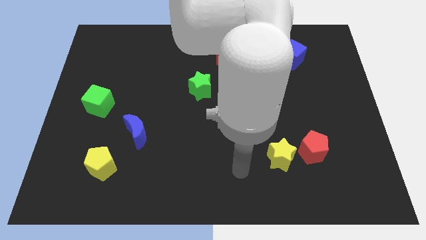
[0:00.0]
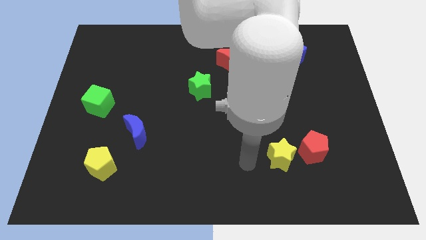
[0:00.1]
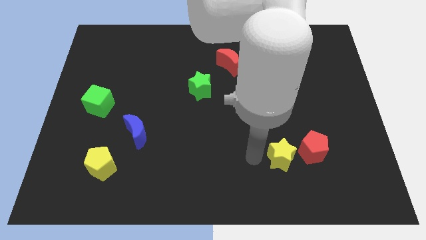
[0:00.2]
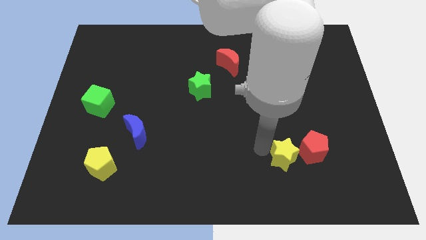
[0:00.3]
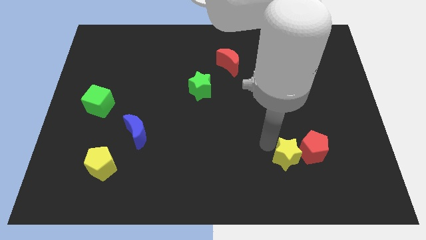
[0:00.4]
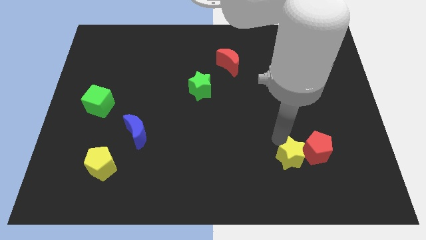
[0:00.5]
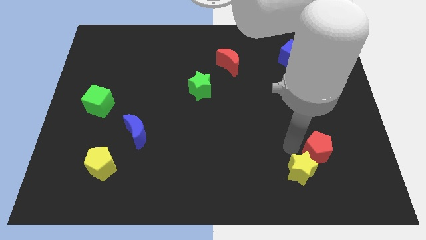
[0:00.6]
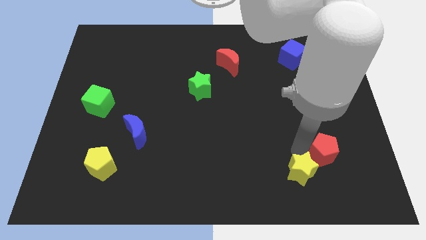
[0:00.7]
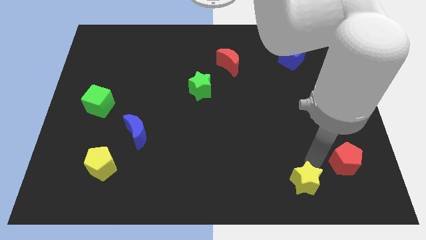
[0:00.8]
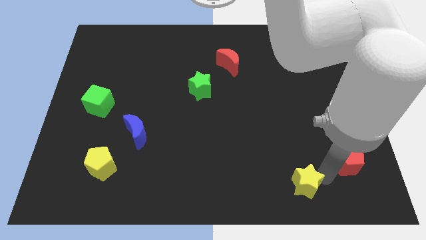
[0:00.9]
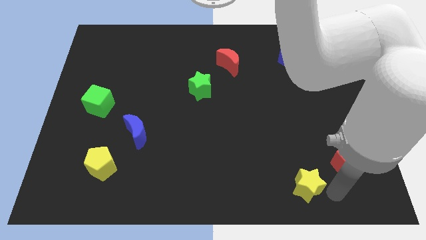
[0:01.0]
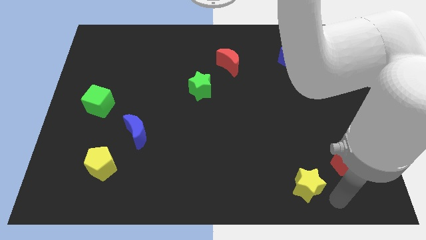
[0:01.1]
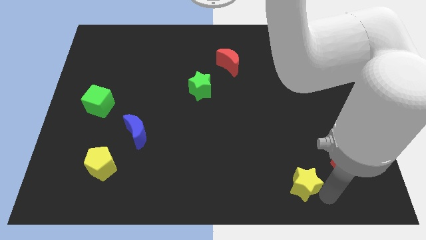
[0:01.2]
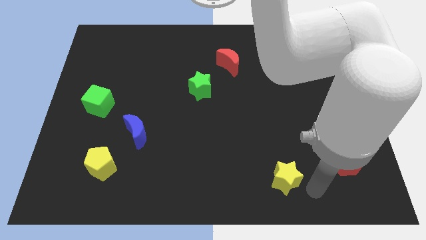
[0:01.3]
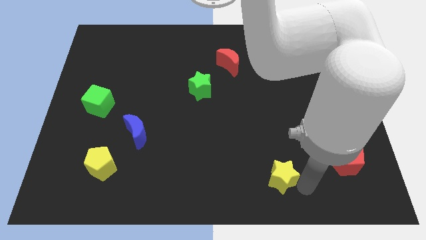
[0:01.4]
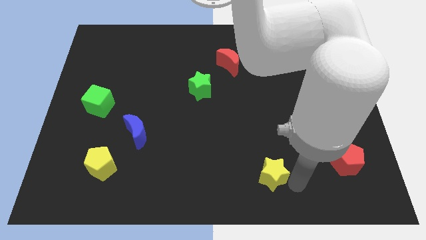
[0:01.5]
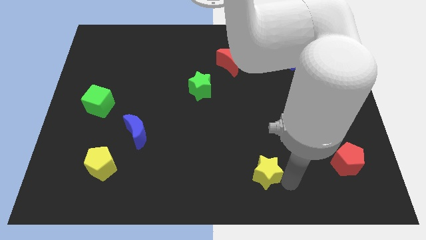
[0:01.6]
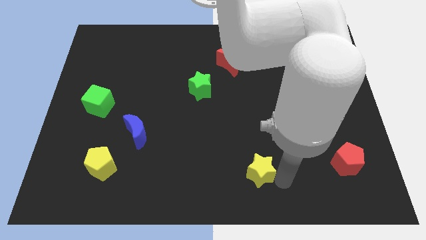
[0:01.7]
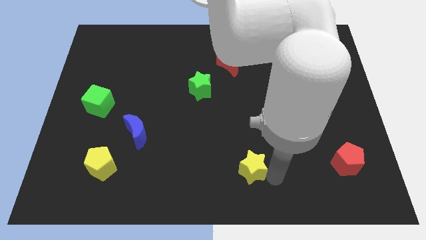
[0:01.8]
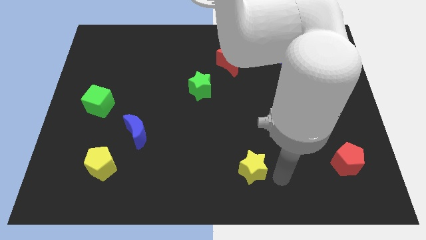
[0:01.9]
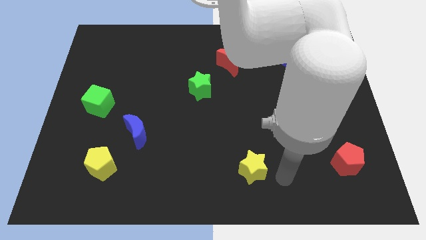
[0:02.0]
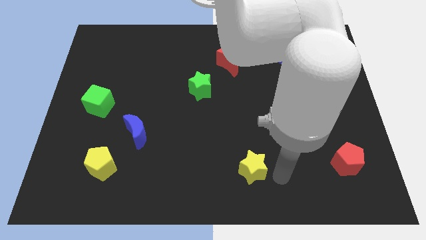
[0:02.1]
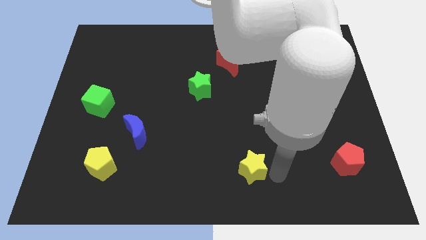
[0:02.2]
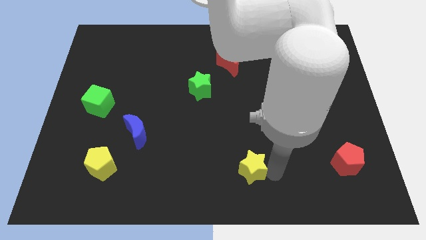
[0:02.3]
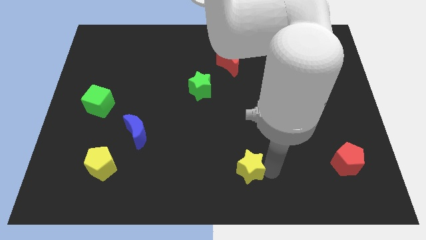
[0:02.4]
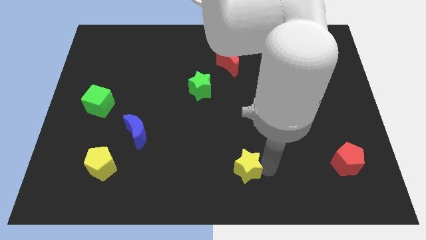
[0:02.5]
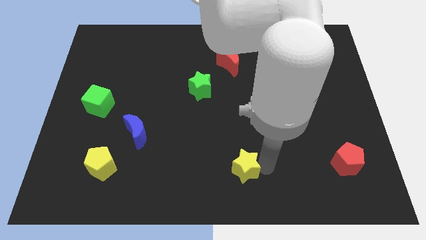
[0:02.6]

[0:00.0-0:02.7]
move the yellow star a little bit left

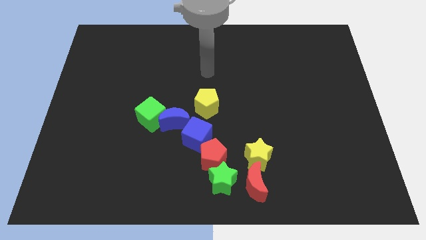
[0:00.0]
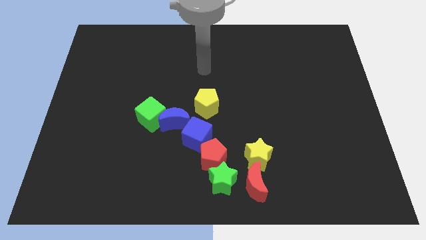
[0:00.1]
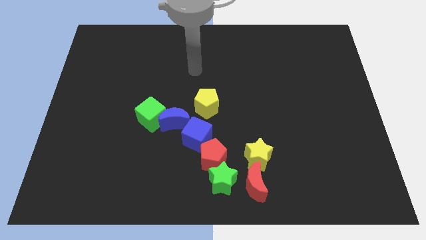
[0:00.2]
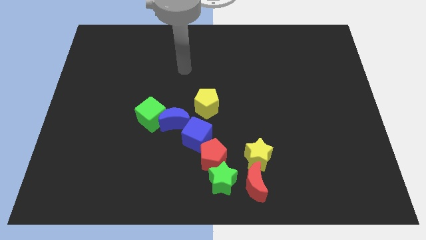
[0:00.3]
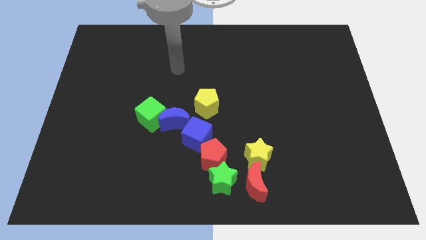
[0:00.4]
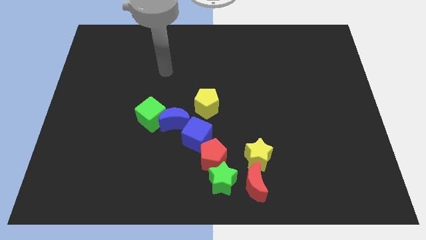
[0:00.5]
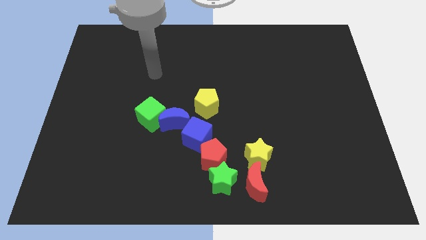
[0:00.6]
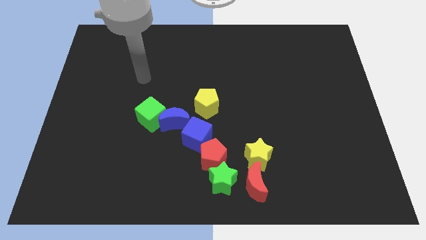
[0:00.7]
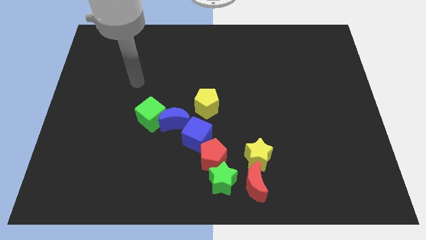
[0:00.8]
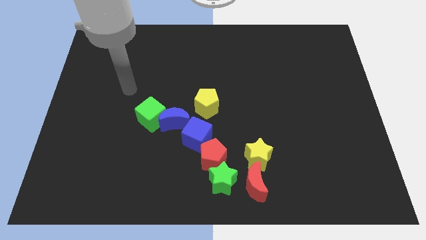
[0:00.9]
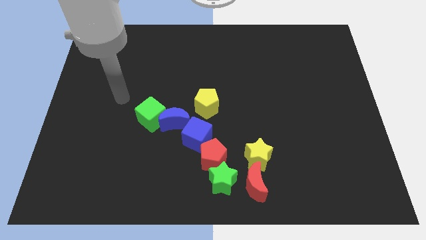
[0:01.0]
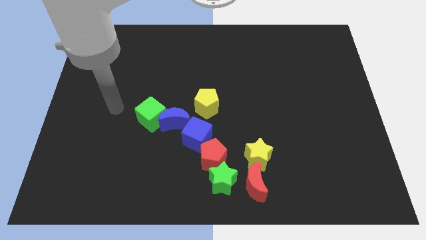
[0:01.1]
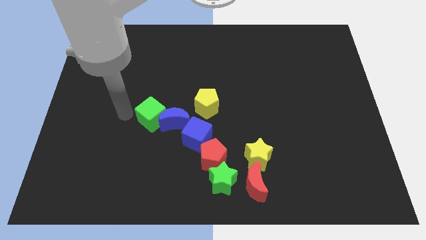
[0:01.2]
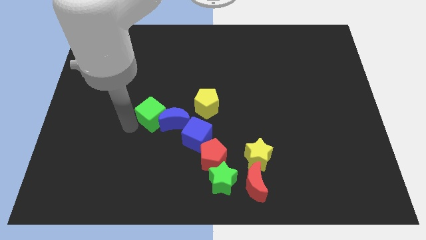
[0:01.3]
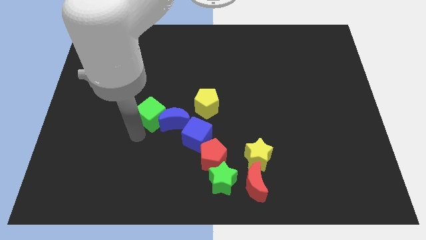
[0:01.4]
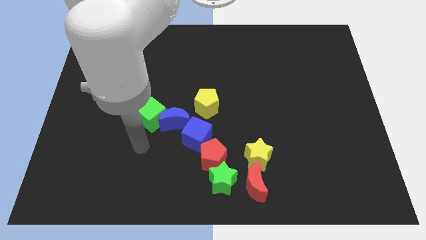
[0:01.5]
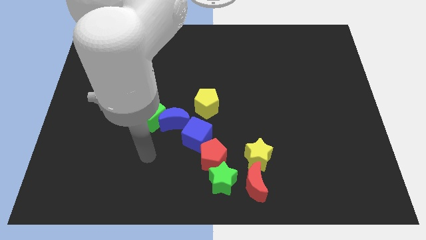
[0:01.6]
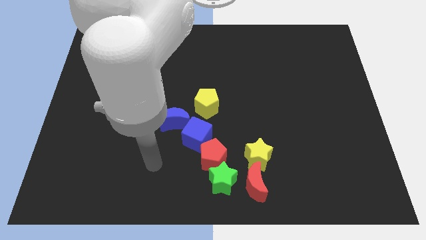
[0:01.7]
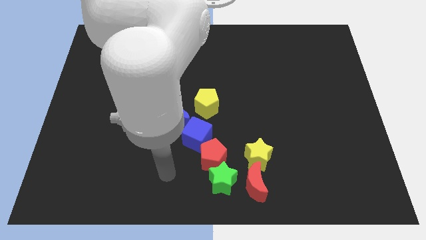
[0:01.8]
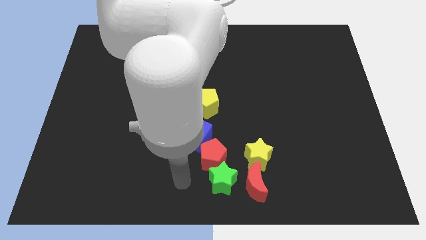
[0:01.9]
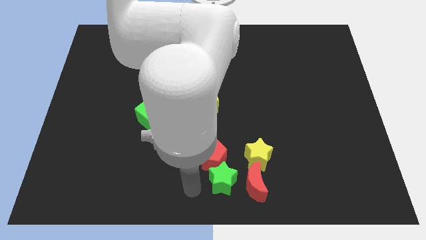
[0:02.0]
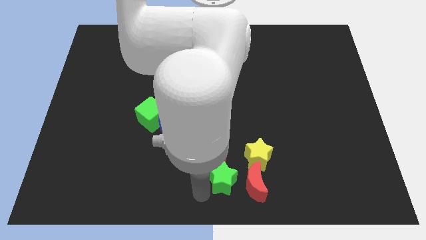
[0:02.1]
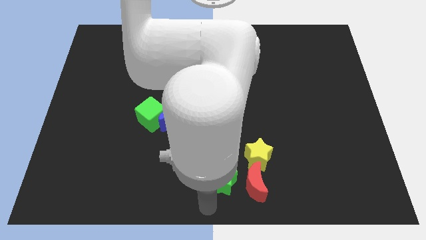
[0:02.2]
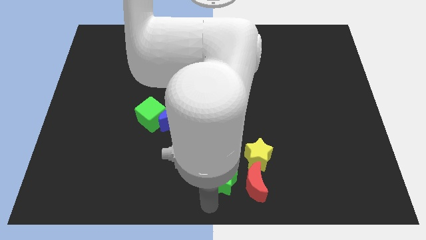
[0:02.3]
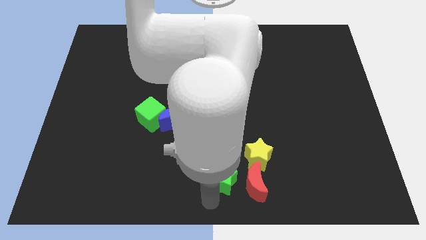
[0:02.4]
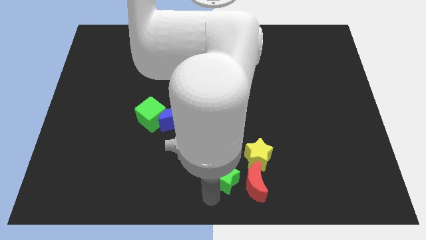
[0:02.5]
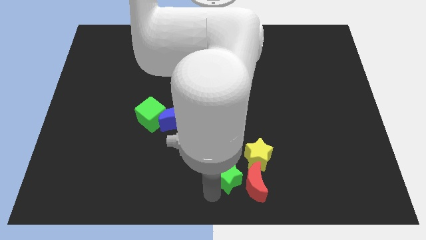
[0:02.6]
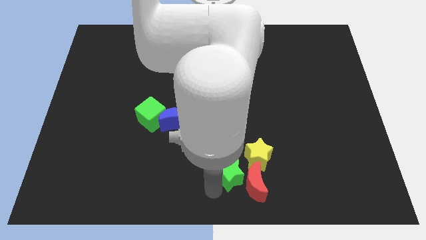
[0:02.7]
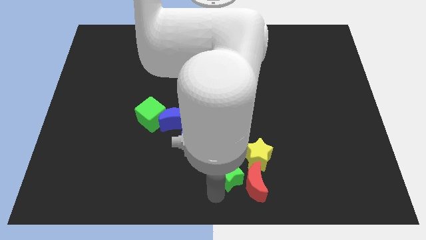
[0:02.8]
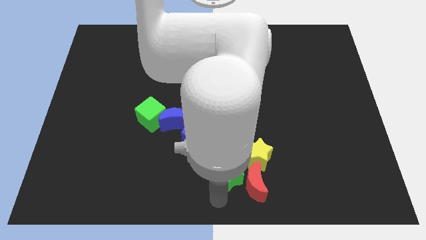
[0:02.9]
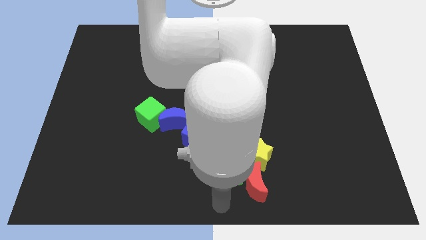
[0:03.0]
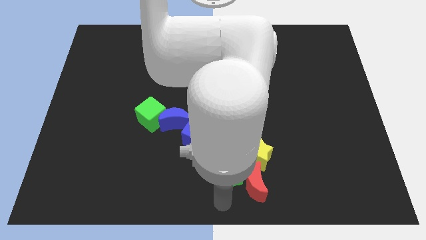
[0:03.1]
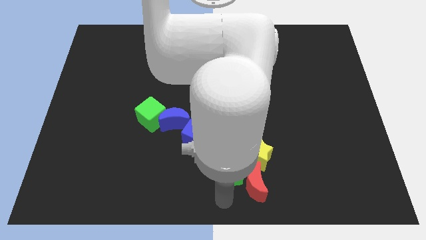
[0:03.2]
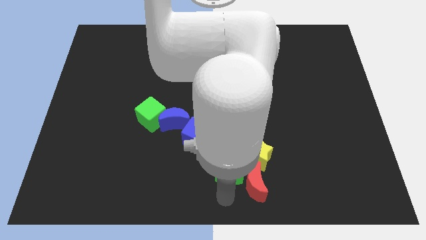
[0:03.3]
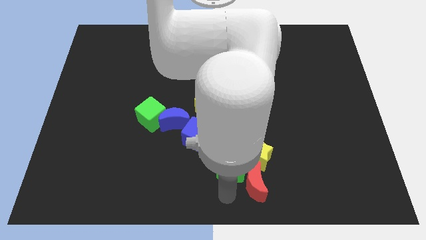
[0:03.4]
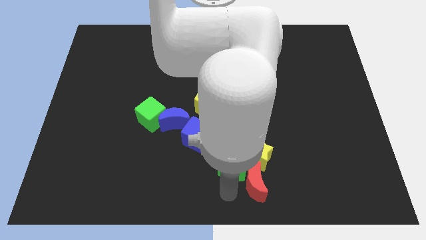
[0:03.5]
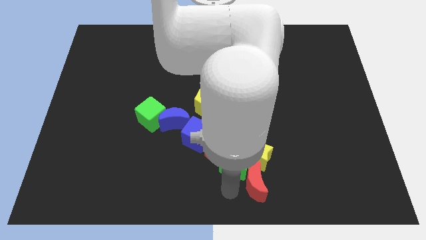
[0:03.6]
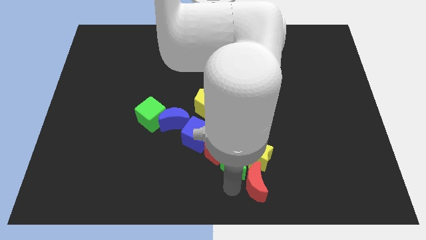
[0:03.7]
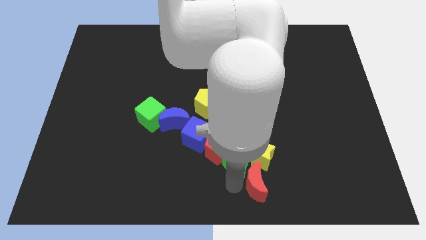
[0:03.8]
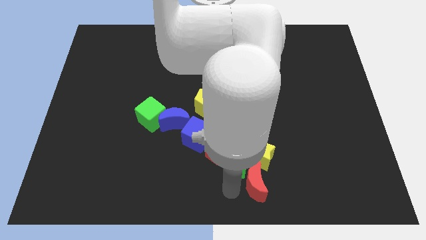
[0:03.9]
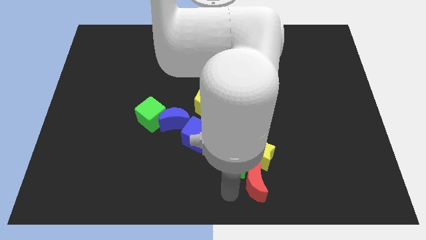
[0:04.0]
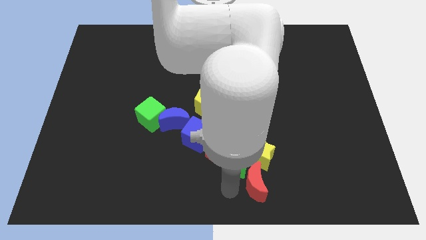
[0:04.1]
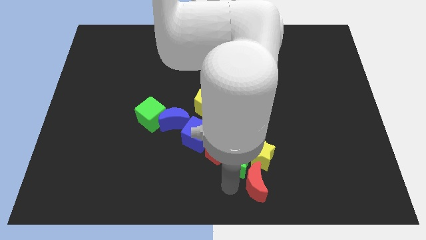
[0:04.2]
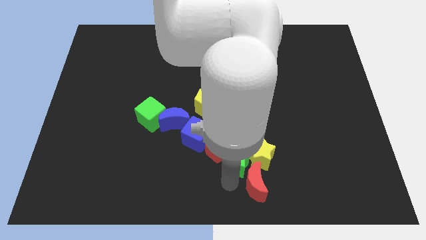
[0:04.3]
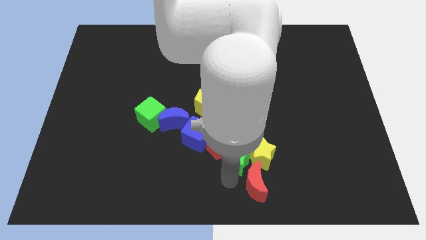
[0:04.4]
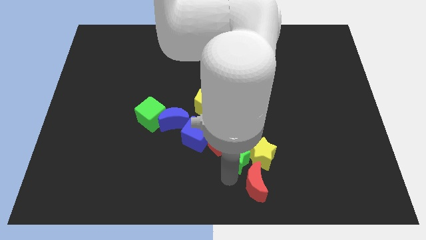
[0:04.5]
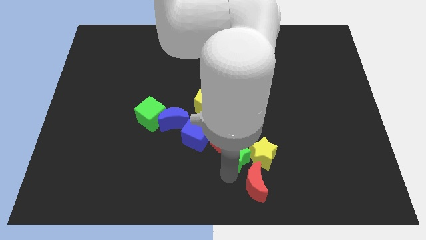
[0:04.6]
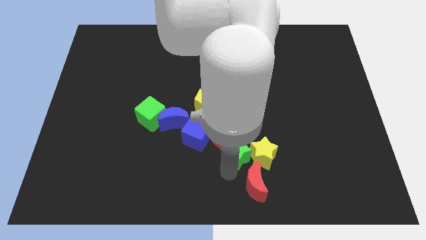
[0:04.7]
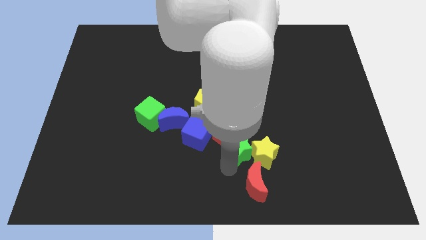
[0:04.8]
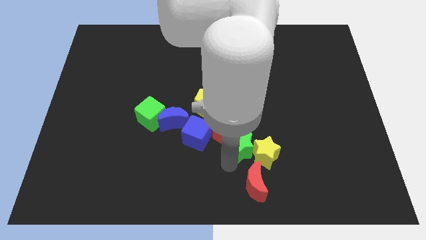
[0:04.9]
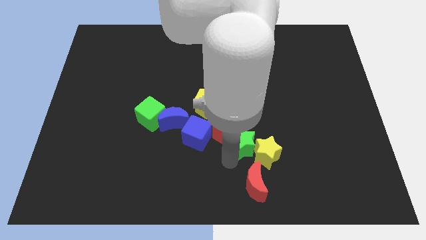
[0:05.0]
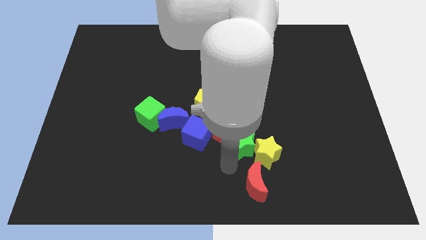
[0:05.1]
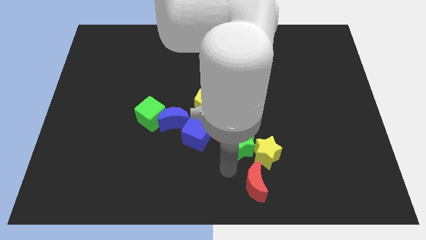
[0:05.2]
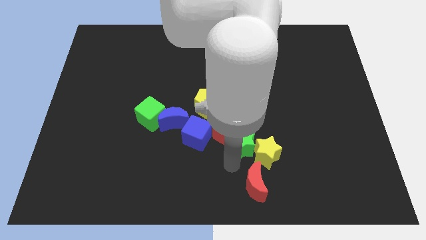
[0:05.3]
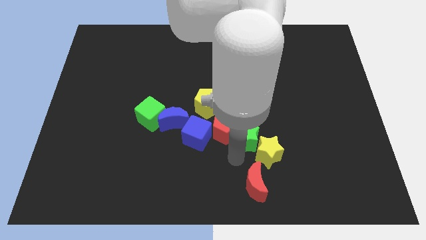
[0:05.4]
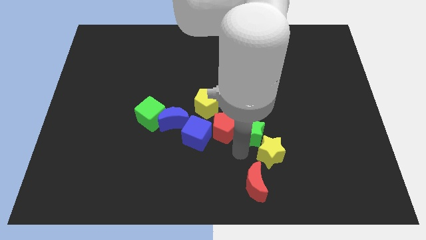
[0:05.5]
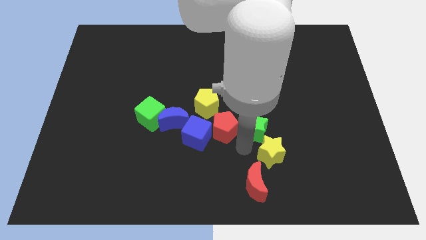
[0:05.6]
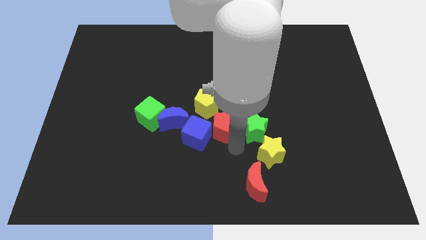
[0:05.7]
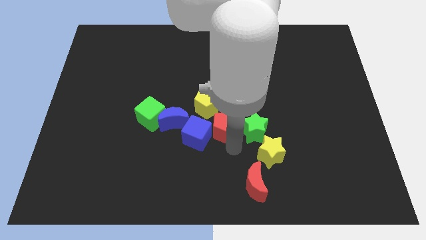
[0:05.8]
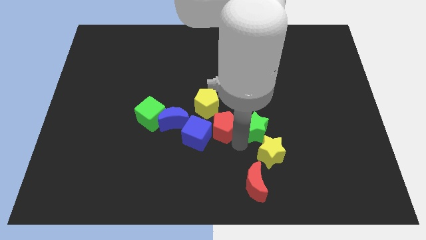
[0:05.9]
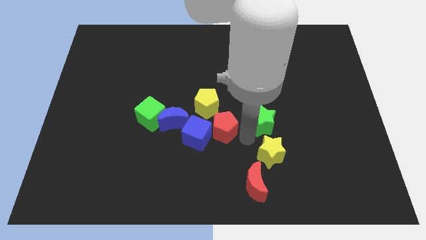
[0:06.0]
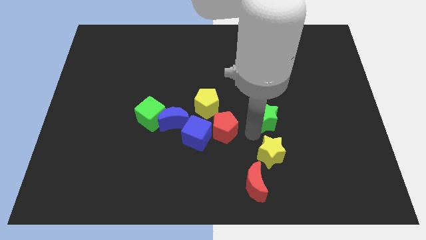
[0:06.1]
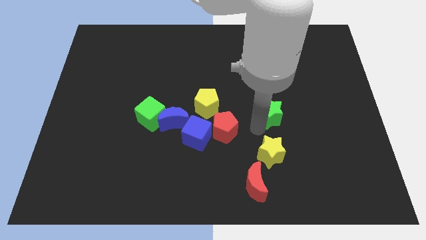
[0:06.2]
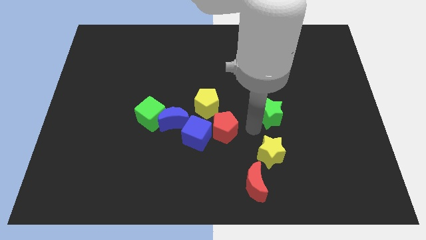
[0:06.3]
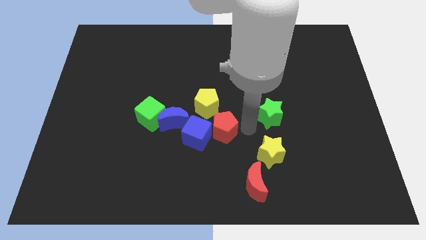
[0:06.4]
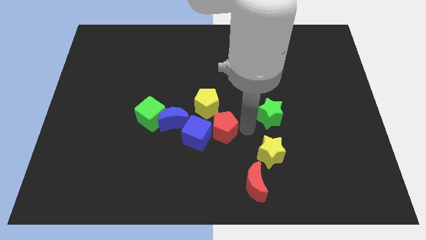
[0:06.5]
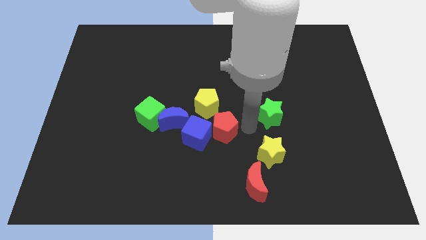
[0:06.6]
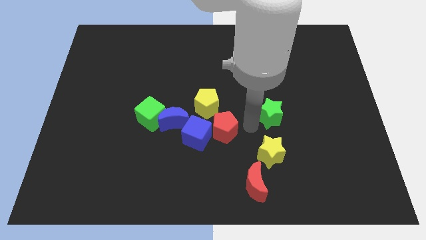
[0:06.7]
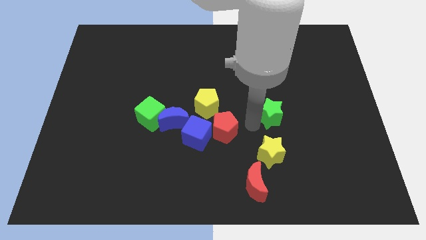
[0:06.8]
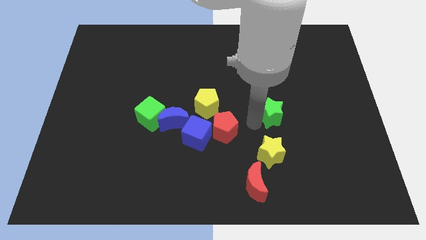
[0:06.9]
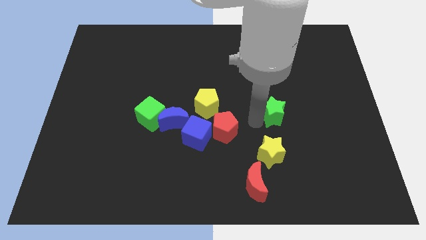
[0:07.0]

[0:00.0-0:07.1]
push the green star up and to the right diagonally
